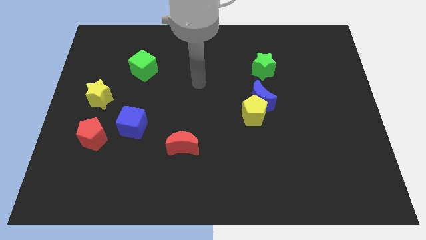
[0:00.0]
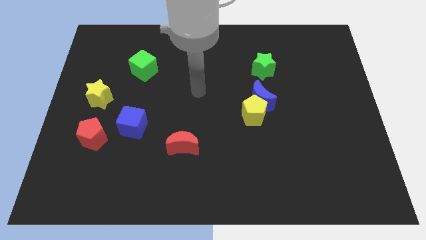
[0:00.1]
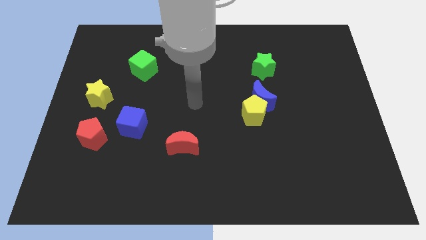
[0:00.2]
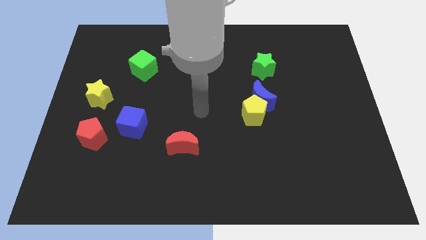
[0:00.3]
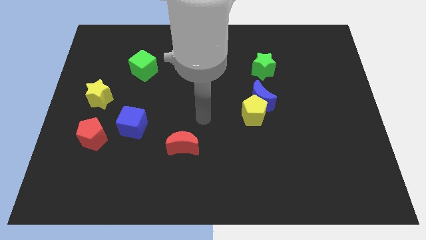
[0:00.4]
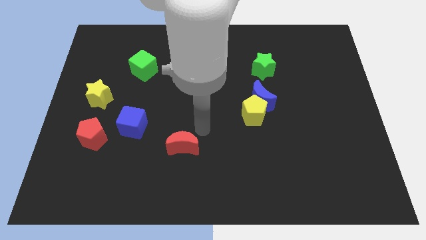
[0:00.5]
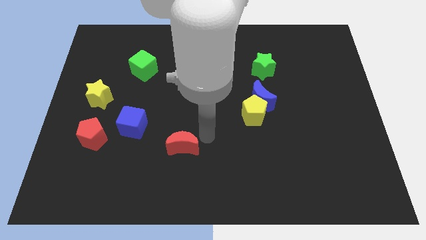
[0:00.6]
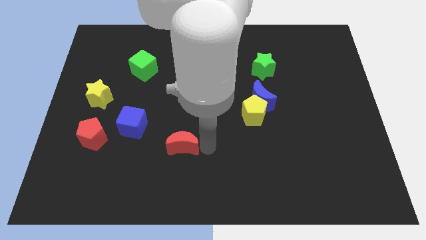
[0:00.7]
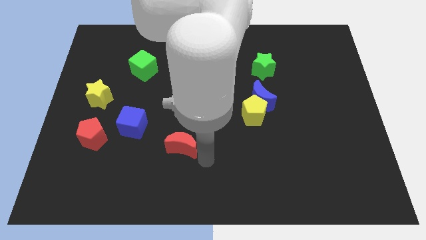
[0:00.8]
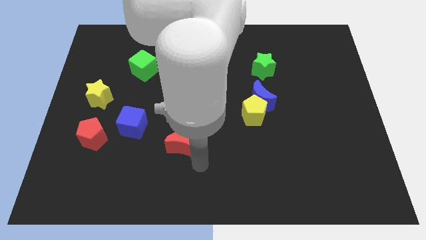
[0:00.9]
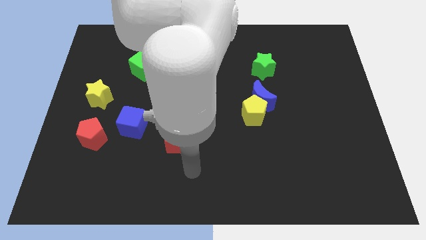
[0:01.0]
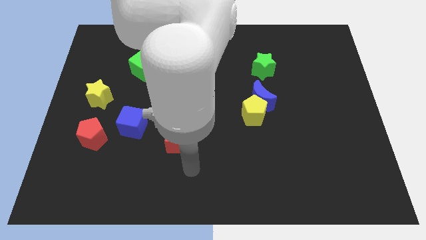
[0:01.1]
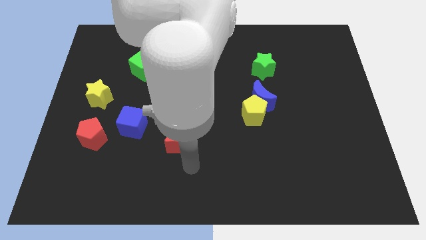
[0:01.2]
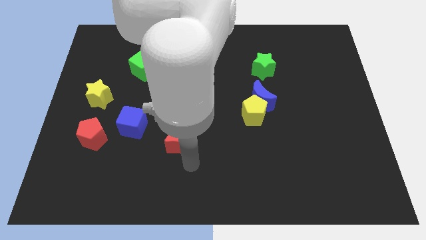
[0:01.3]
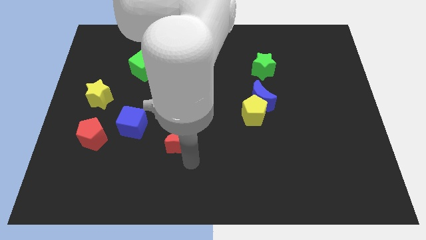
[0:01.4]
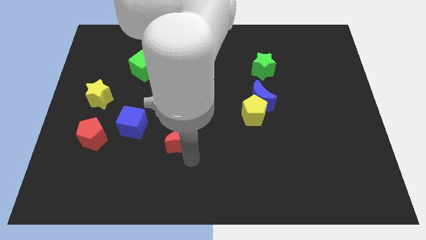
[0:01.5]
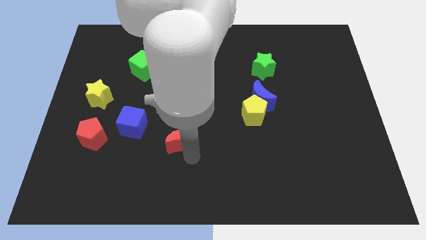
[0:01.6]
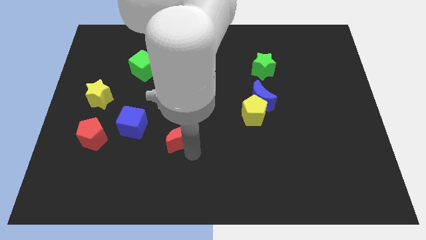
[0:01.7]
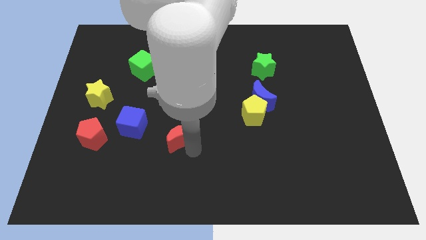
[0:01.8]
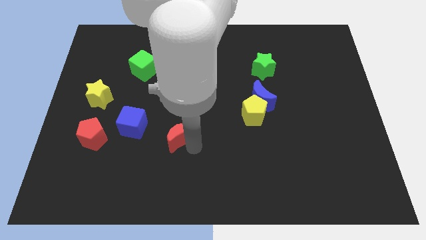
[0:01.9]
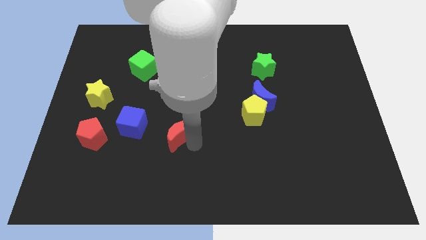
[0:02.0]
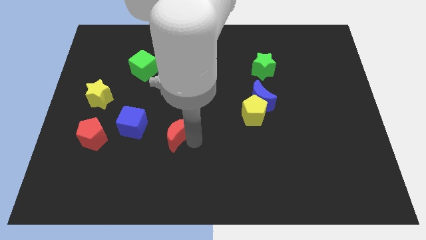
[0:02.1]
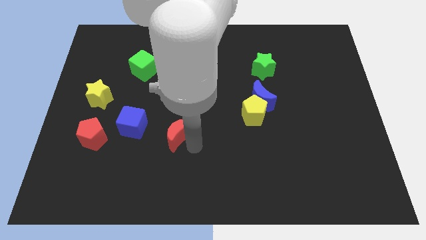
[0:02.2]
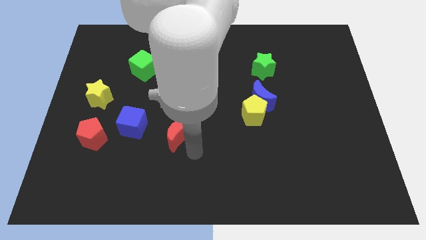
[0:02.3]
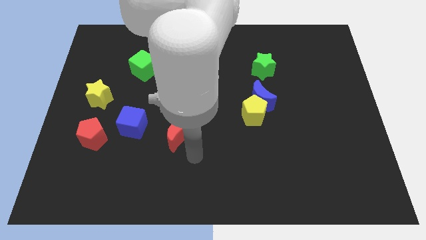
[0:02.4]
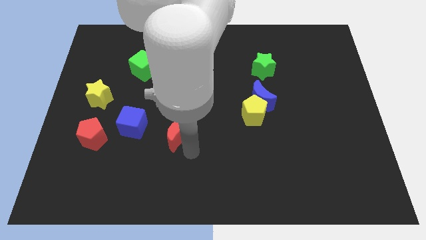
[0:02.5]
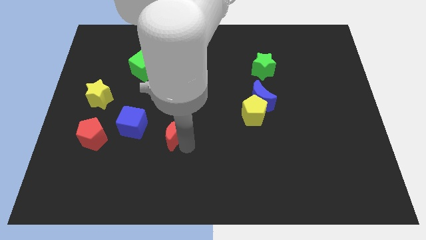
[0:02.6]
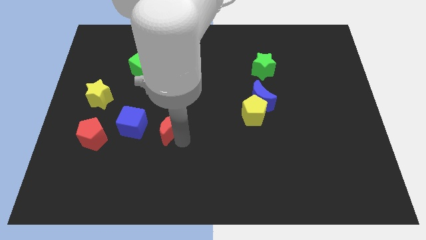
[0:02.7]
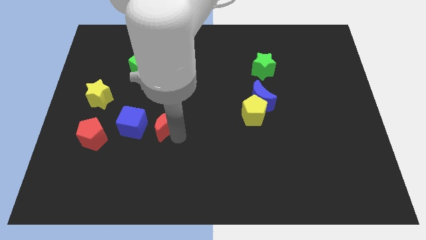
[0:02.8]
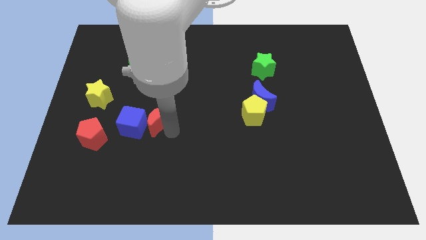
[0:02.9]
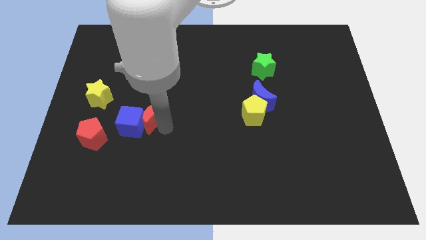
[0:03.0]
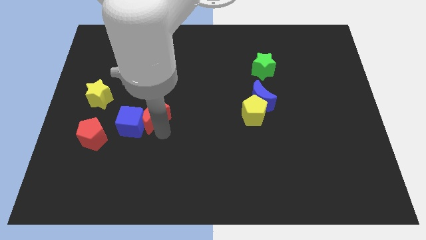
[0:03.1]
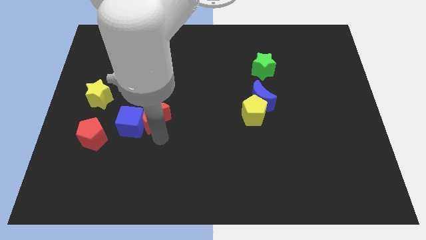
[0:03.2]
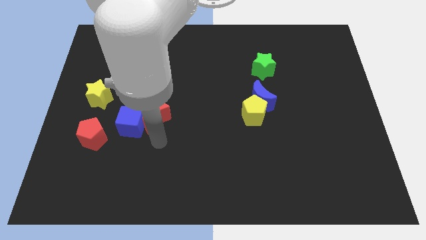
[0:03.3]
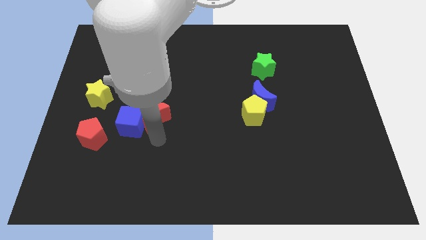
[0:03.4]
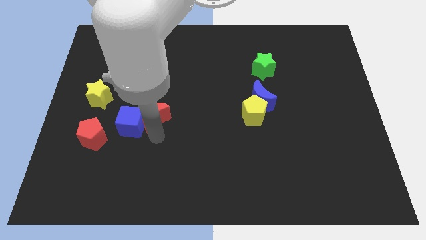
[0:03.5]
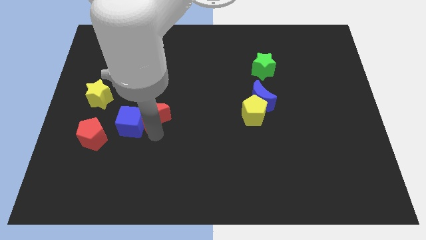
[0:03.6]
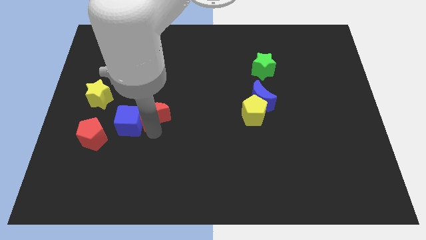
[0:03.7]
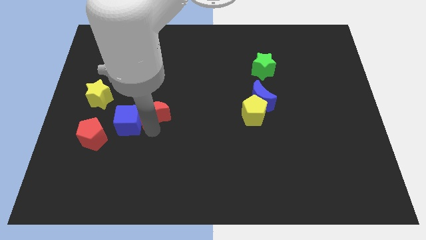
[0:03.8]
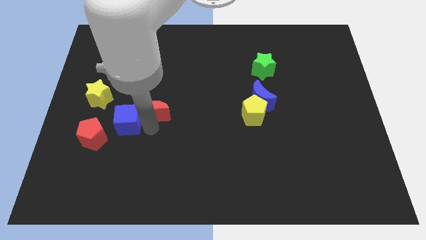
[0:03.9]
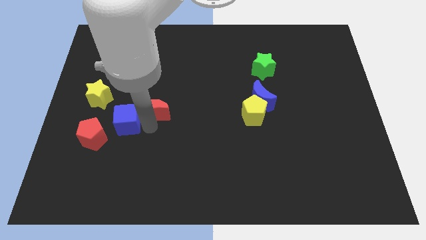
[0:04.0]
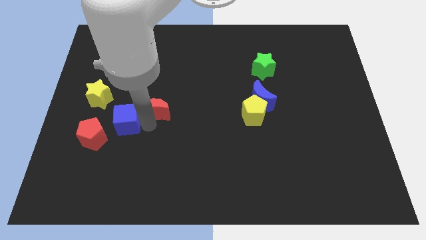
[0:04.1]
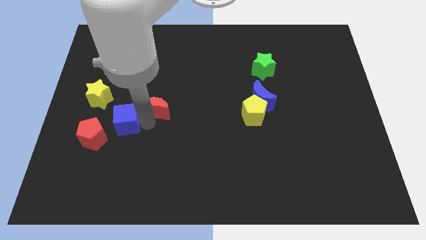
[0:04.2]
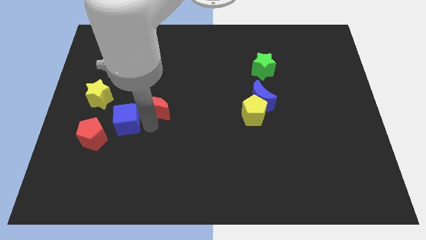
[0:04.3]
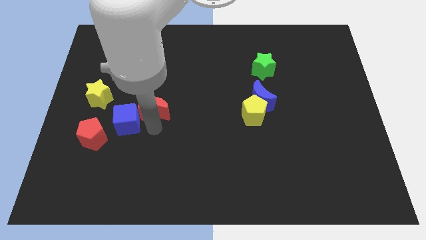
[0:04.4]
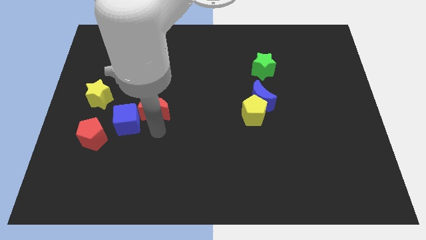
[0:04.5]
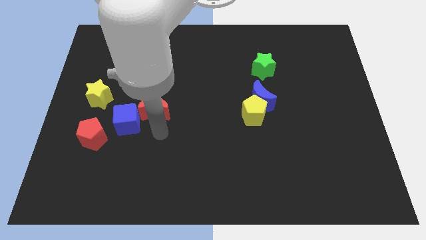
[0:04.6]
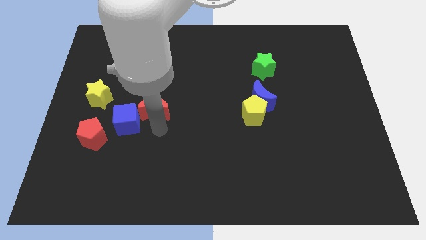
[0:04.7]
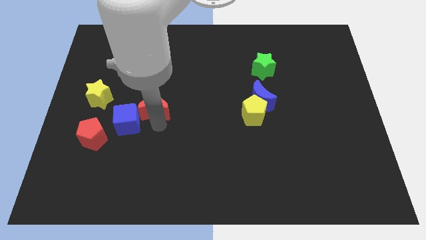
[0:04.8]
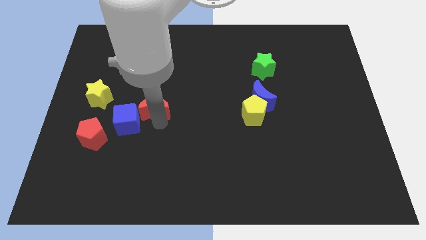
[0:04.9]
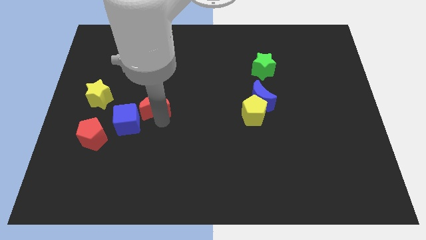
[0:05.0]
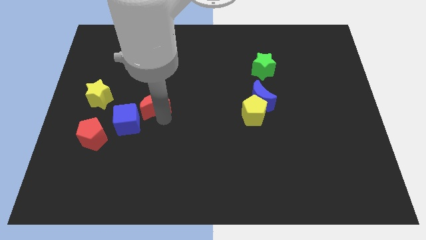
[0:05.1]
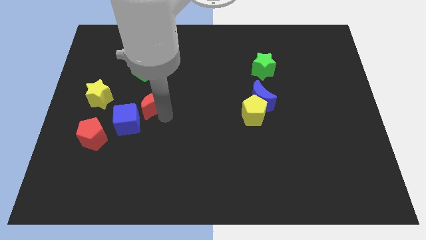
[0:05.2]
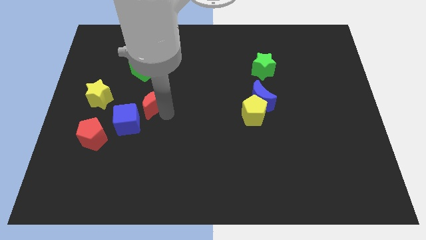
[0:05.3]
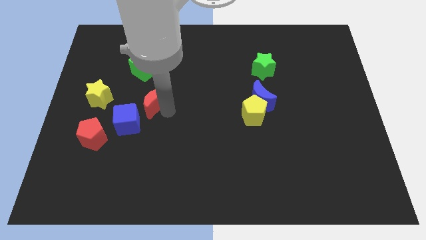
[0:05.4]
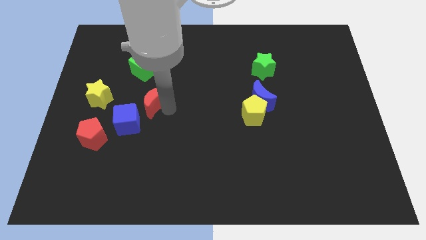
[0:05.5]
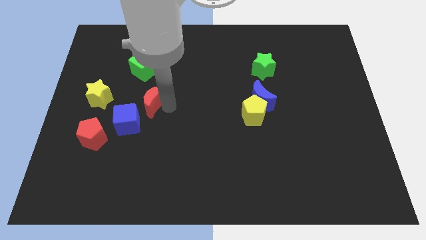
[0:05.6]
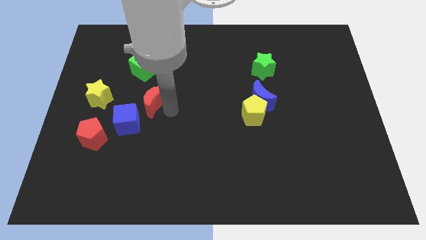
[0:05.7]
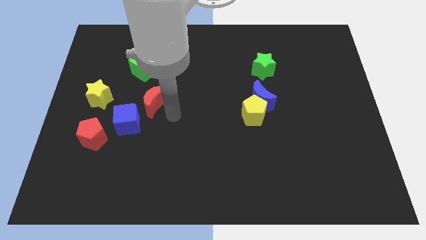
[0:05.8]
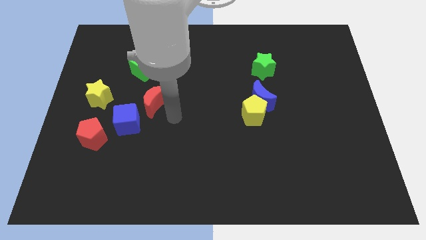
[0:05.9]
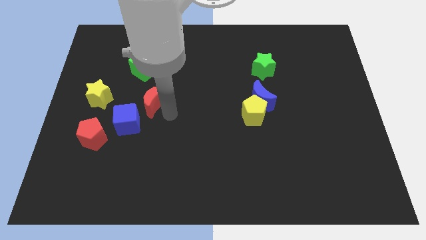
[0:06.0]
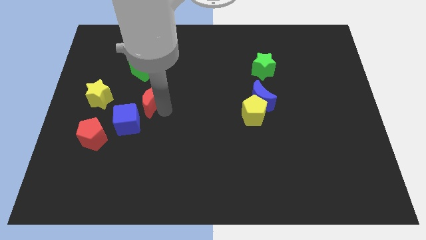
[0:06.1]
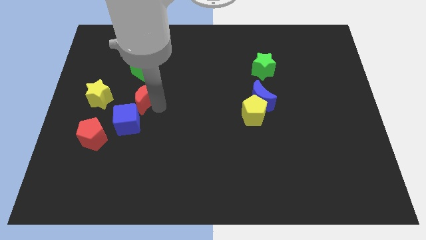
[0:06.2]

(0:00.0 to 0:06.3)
slide the red moon to the top of the blue cube

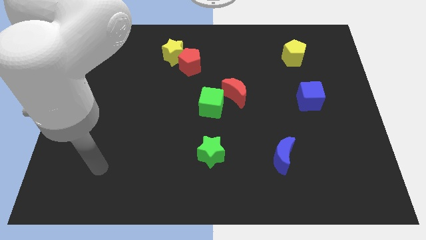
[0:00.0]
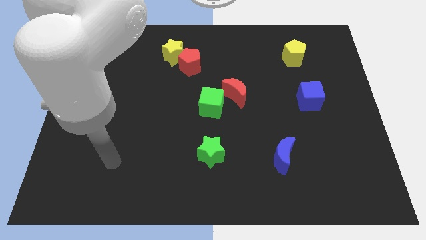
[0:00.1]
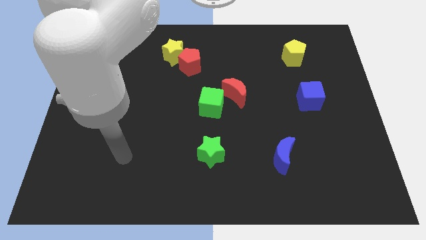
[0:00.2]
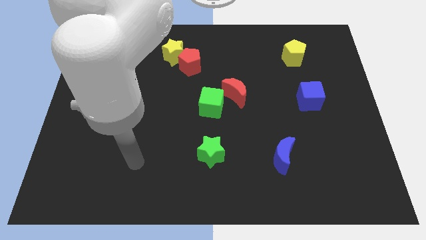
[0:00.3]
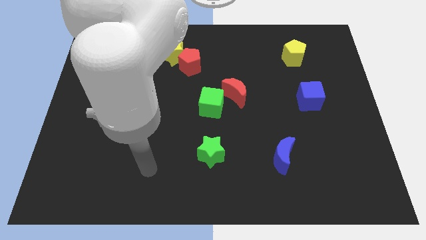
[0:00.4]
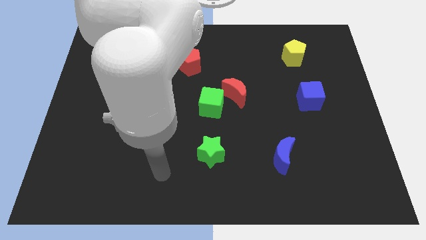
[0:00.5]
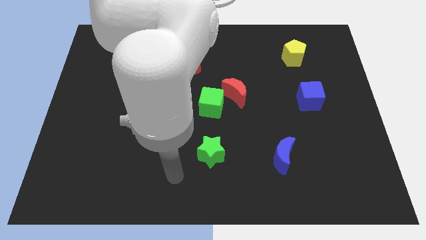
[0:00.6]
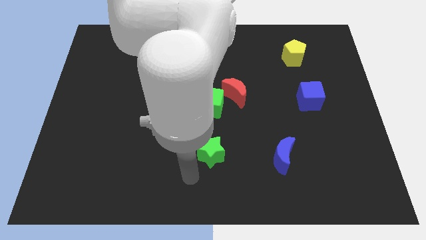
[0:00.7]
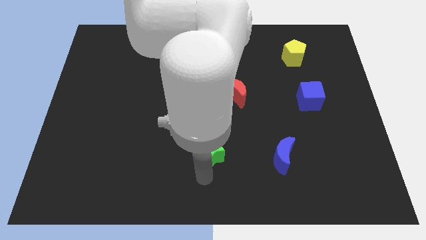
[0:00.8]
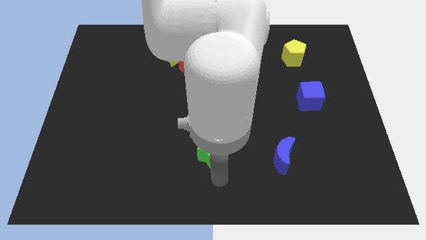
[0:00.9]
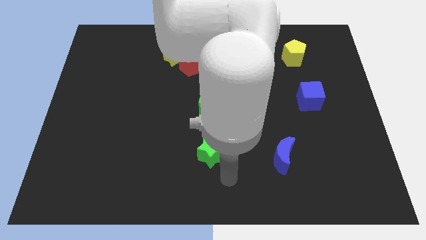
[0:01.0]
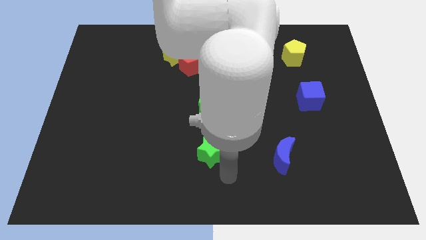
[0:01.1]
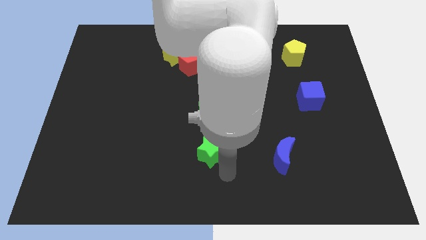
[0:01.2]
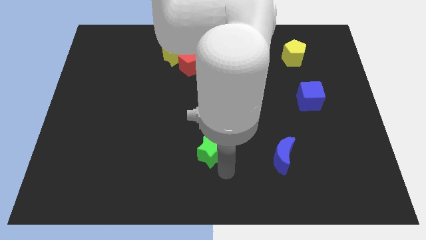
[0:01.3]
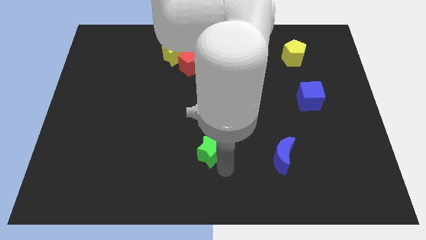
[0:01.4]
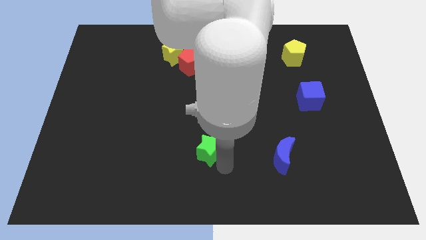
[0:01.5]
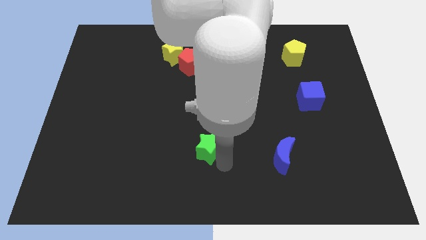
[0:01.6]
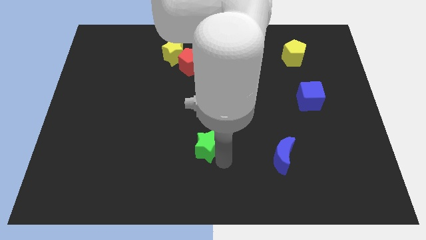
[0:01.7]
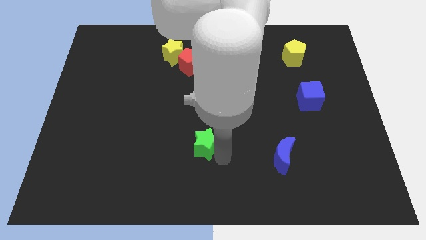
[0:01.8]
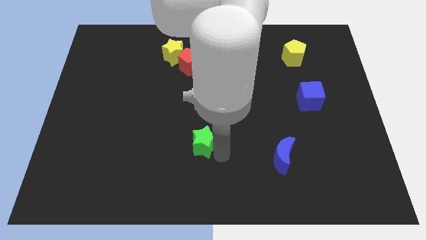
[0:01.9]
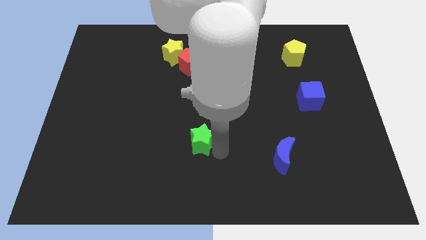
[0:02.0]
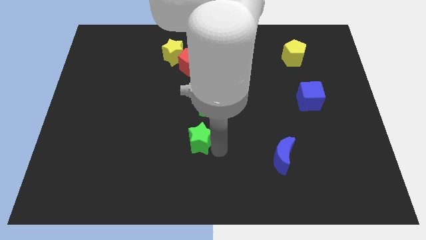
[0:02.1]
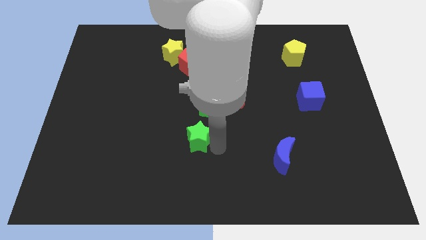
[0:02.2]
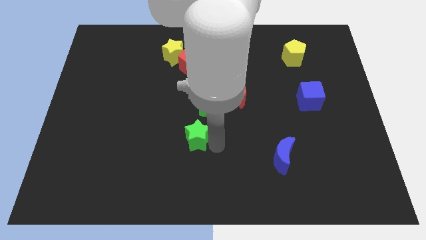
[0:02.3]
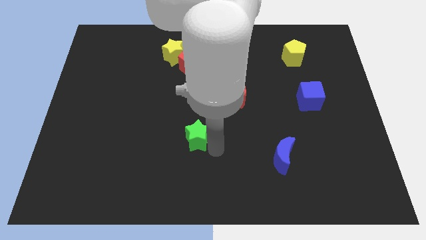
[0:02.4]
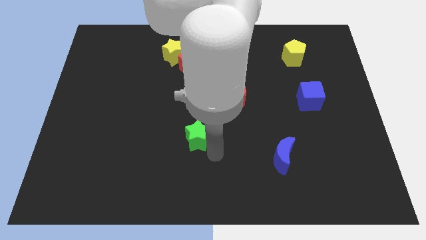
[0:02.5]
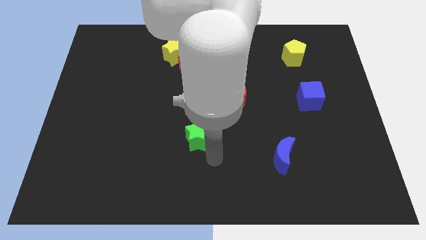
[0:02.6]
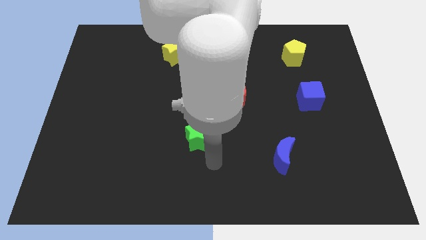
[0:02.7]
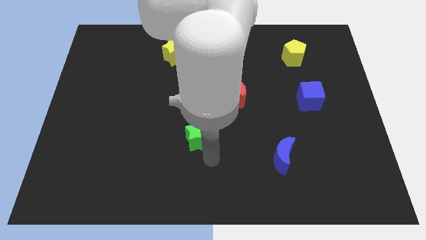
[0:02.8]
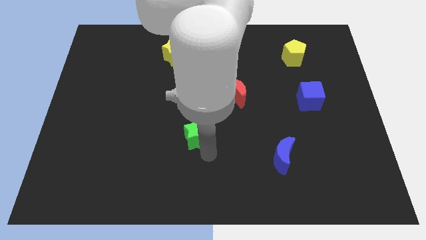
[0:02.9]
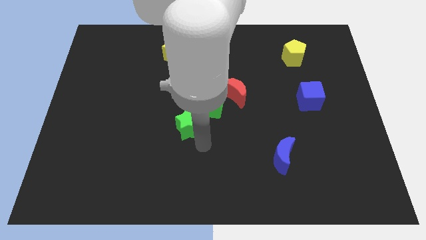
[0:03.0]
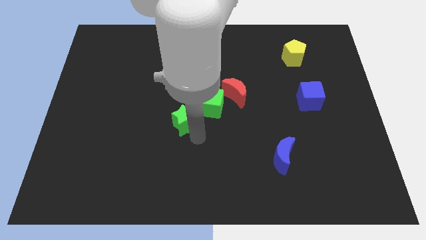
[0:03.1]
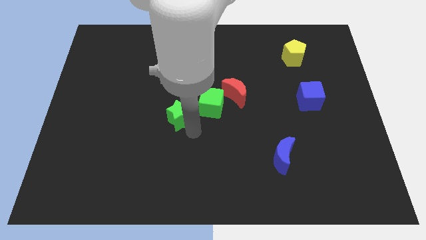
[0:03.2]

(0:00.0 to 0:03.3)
move the green star just left of the green cube
